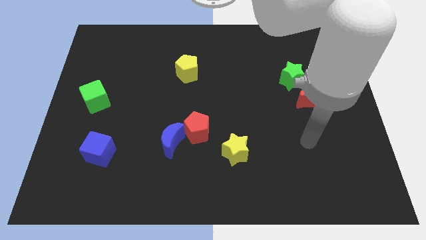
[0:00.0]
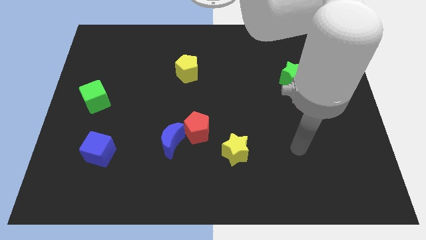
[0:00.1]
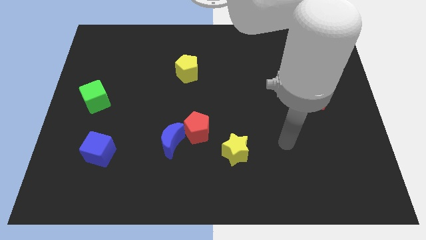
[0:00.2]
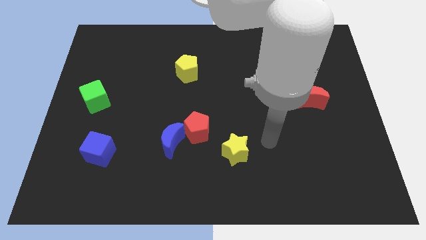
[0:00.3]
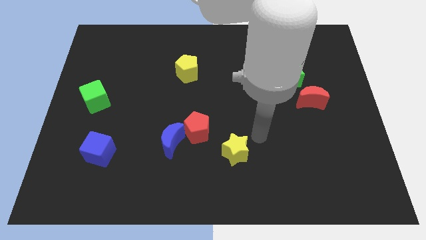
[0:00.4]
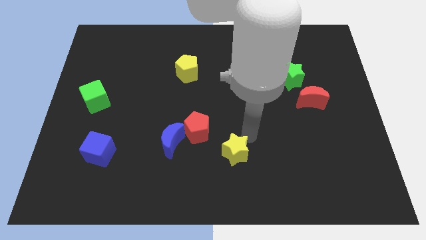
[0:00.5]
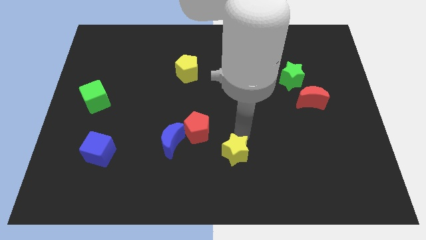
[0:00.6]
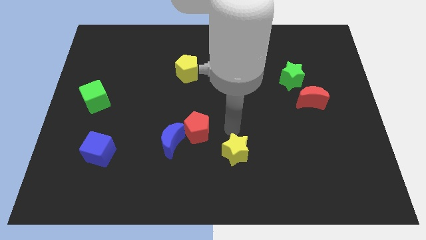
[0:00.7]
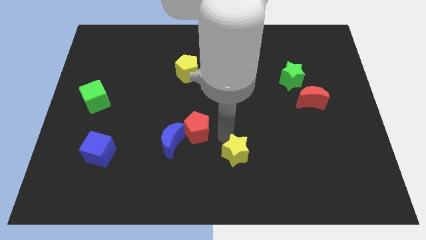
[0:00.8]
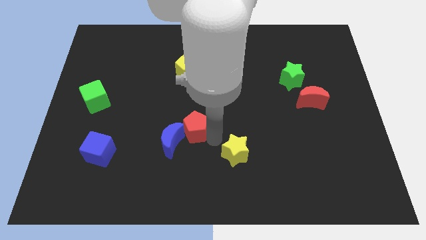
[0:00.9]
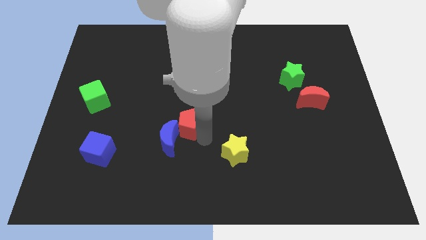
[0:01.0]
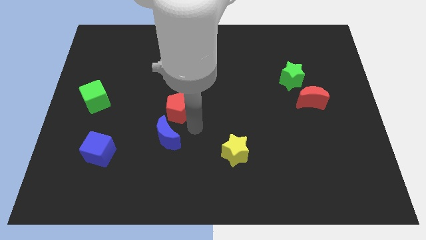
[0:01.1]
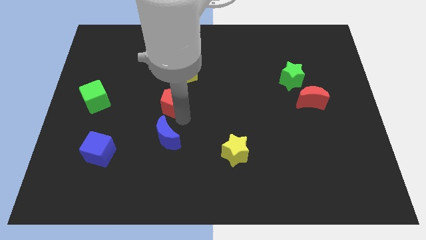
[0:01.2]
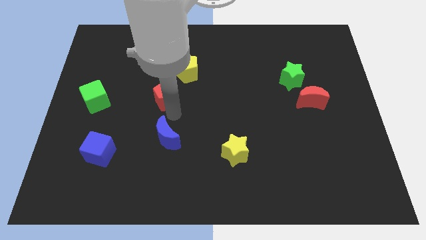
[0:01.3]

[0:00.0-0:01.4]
move the blue moon away from the red pentagon

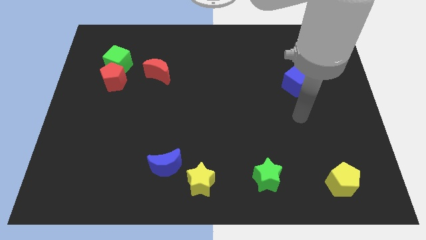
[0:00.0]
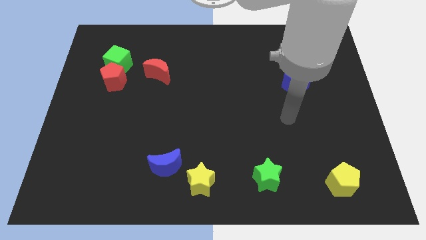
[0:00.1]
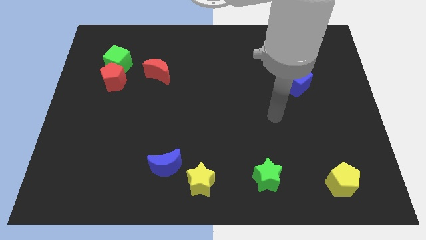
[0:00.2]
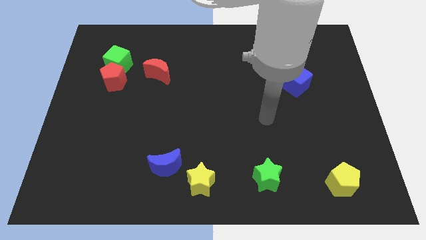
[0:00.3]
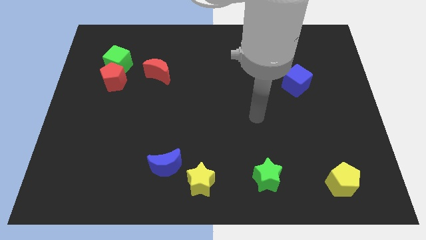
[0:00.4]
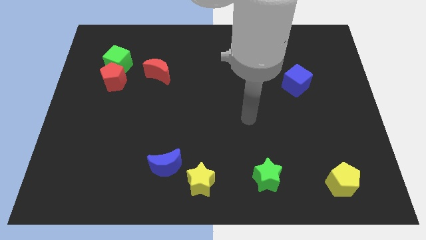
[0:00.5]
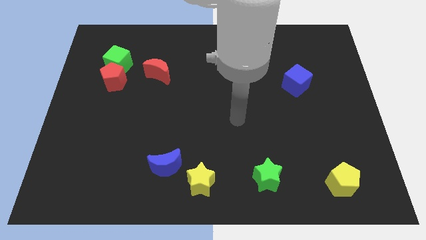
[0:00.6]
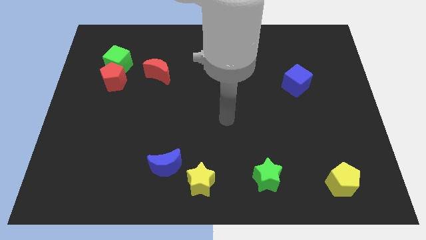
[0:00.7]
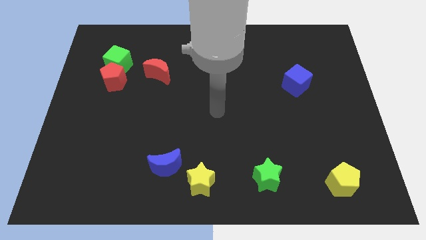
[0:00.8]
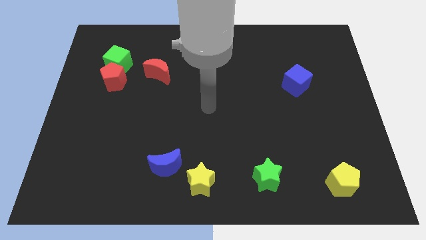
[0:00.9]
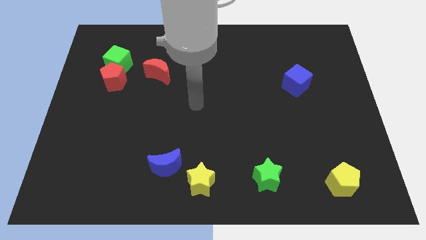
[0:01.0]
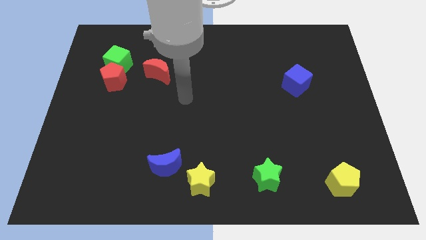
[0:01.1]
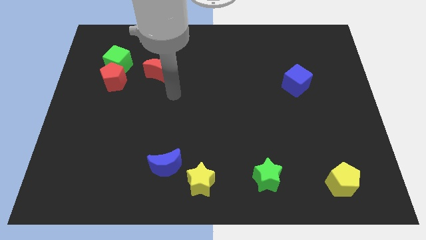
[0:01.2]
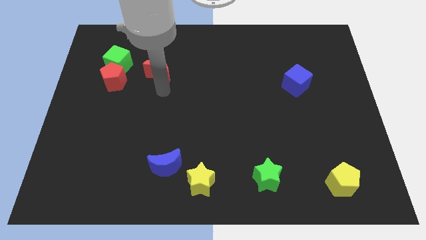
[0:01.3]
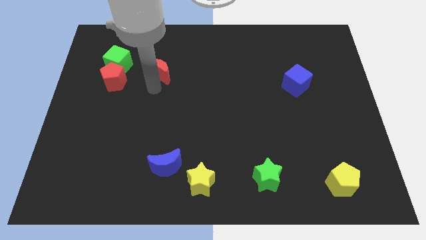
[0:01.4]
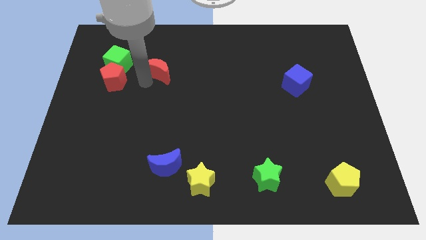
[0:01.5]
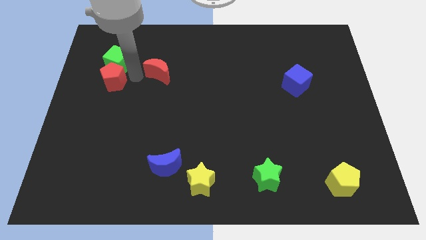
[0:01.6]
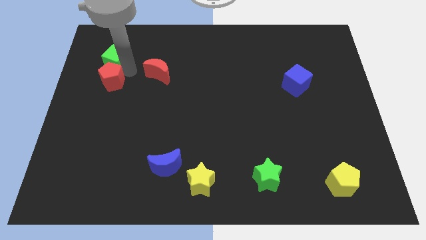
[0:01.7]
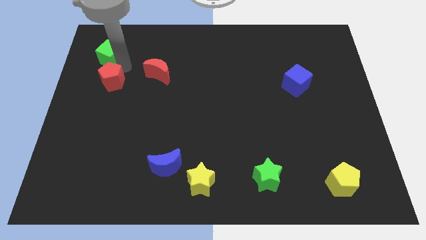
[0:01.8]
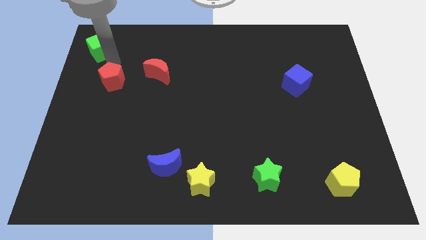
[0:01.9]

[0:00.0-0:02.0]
pull the red pentagon apart from the green cube

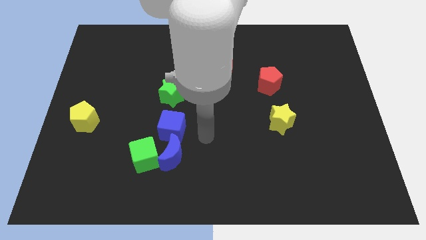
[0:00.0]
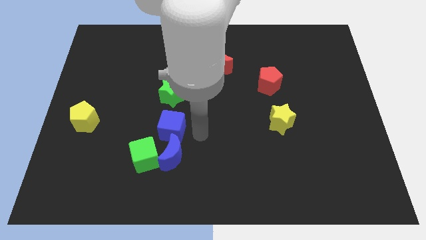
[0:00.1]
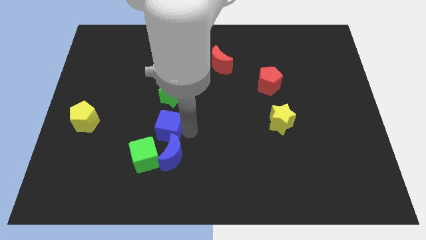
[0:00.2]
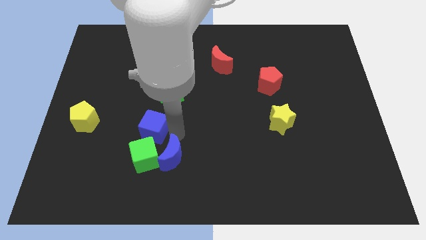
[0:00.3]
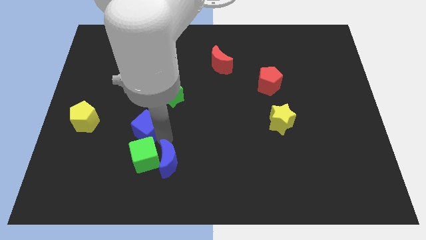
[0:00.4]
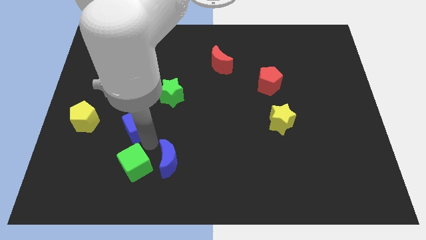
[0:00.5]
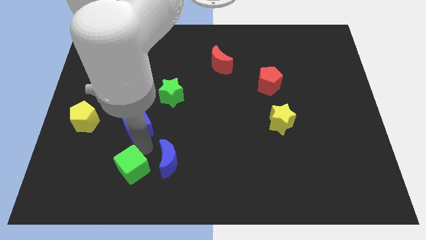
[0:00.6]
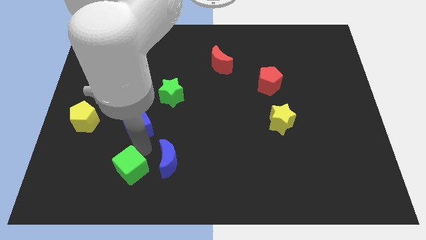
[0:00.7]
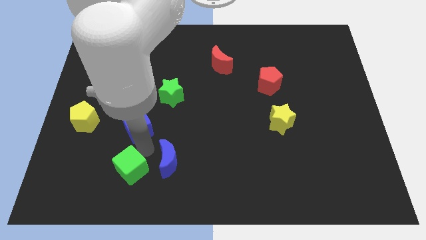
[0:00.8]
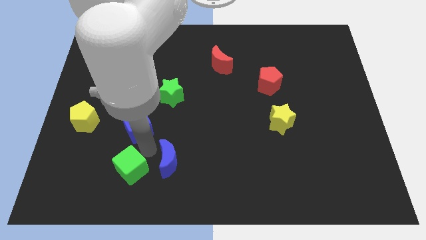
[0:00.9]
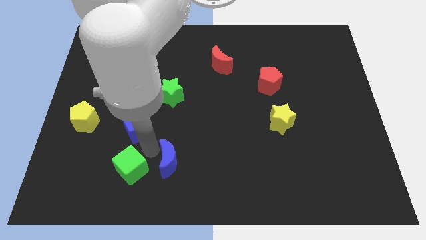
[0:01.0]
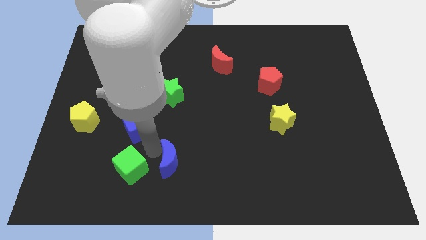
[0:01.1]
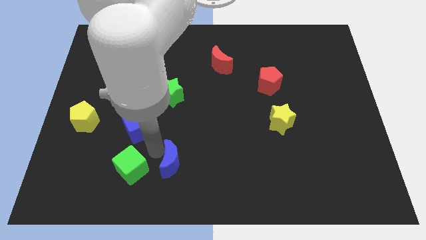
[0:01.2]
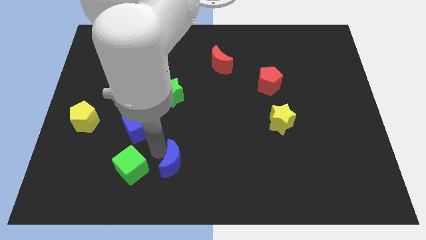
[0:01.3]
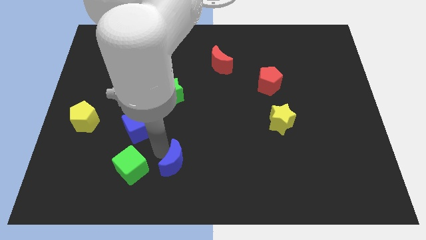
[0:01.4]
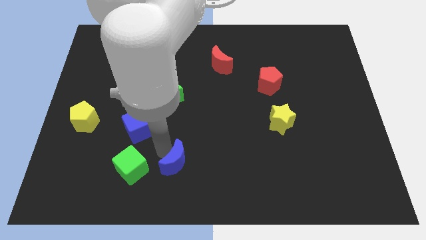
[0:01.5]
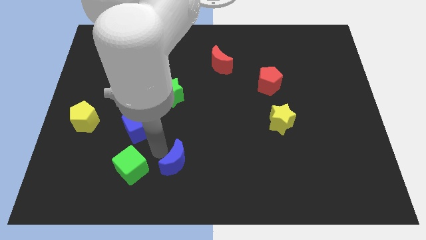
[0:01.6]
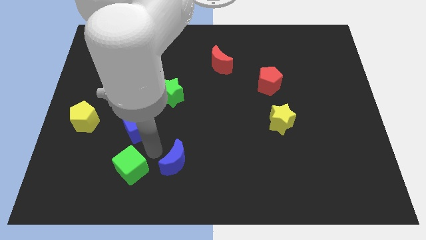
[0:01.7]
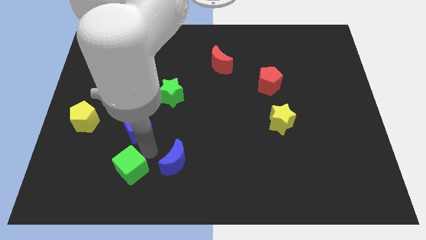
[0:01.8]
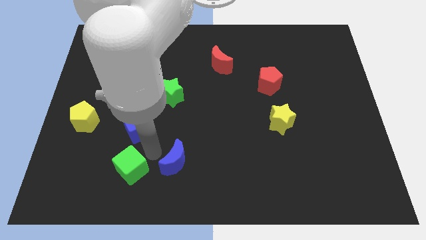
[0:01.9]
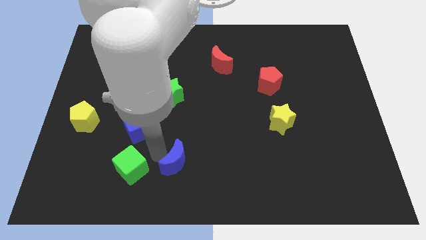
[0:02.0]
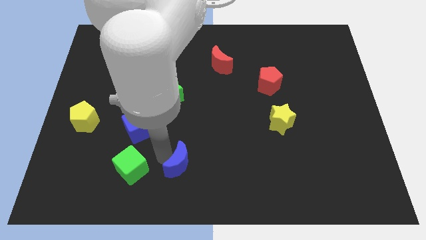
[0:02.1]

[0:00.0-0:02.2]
separate the blue moon from the green cube and blue cube

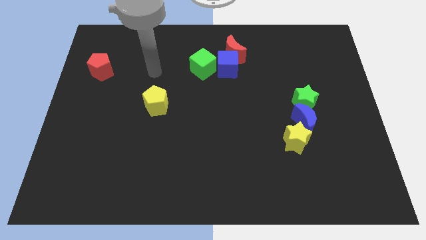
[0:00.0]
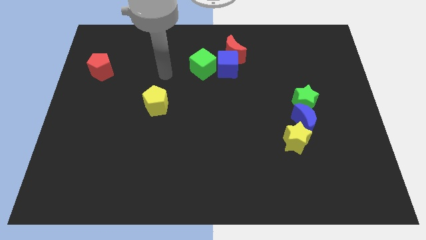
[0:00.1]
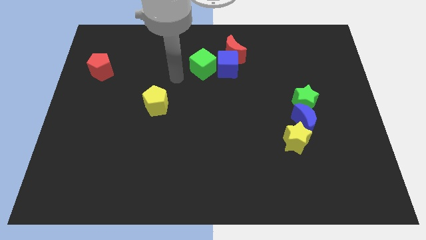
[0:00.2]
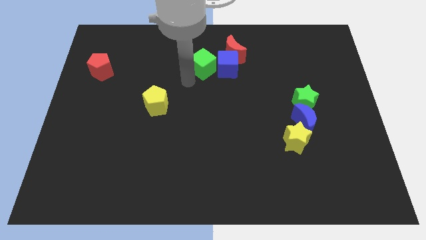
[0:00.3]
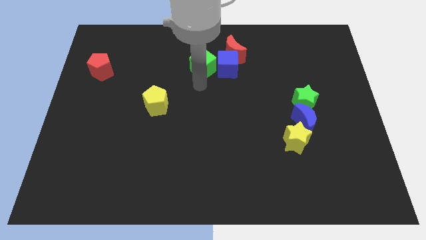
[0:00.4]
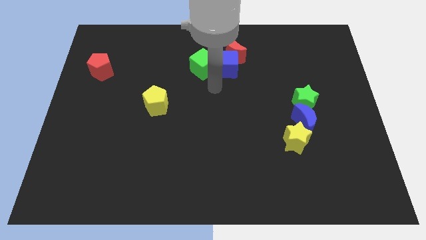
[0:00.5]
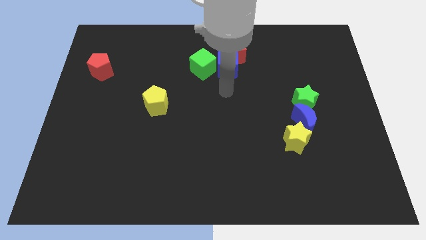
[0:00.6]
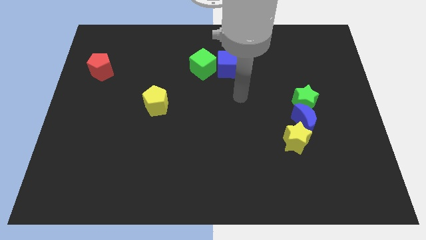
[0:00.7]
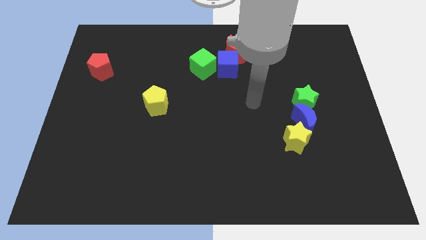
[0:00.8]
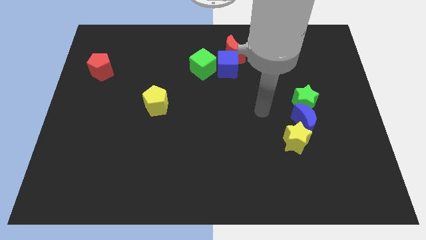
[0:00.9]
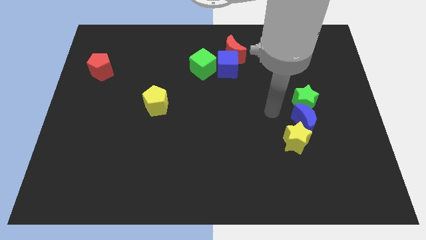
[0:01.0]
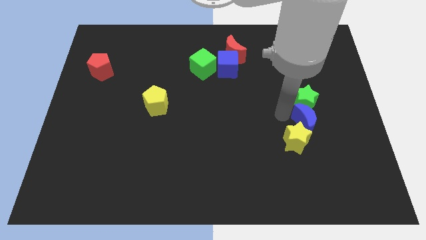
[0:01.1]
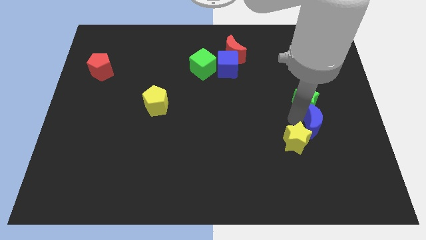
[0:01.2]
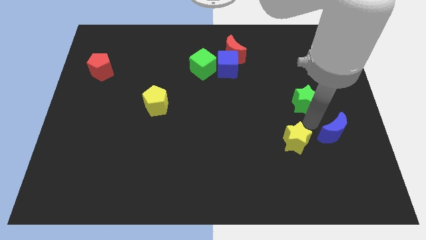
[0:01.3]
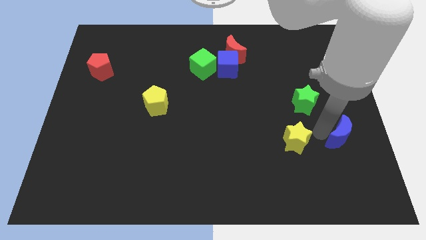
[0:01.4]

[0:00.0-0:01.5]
separate the yellow star from the blue moon

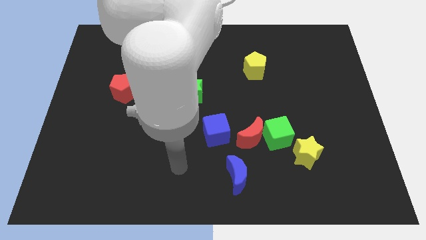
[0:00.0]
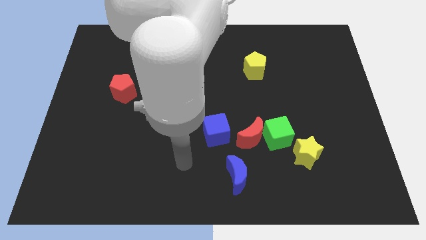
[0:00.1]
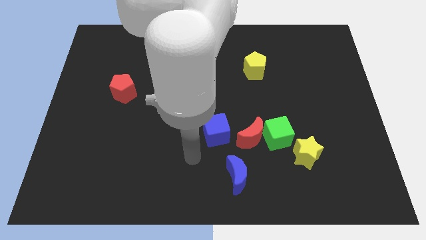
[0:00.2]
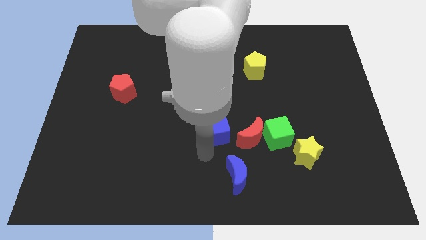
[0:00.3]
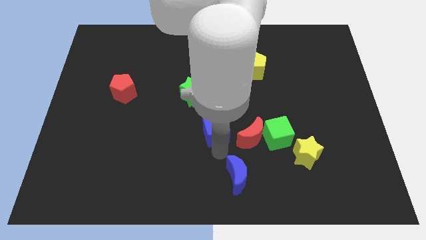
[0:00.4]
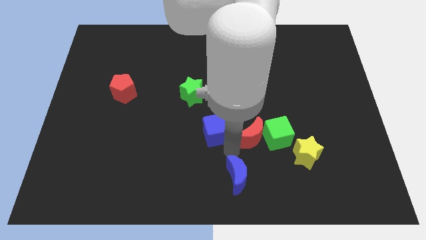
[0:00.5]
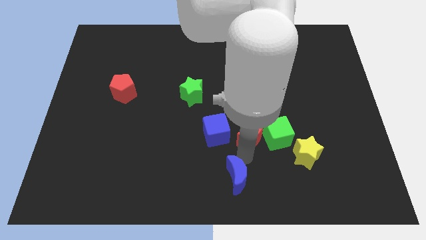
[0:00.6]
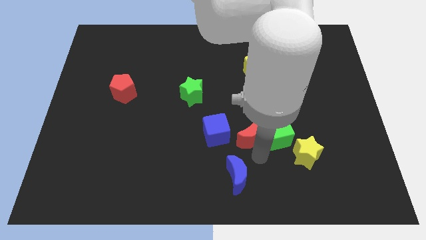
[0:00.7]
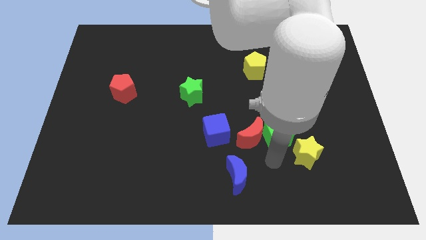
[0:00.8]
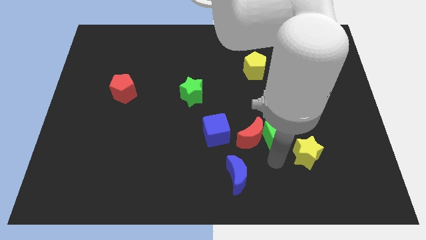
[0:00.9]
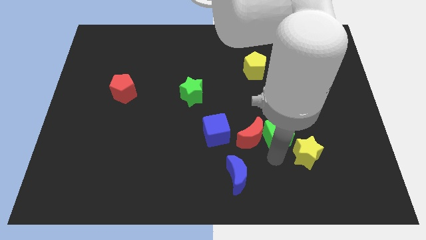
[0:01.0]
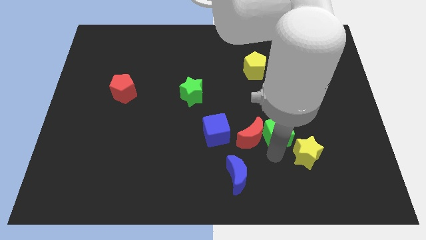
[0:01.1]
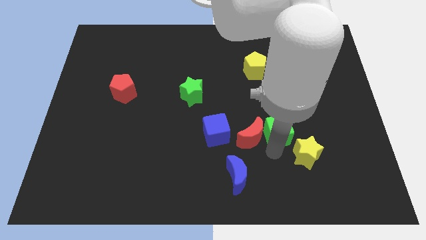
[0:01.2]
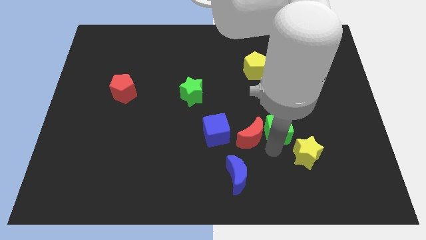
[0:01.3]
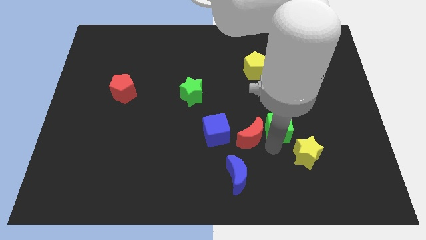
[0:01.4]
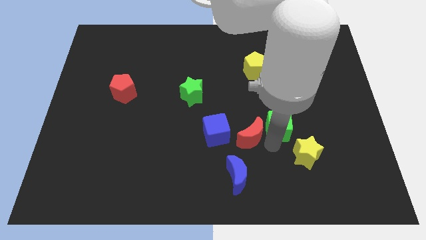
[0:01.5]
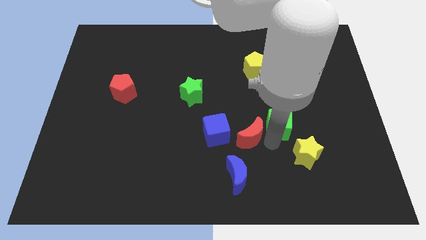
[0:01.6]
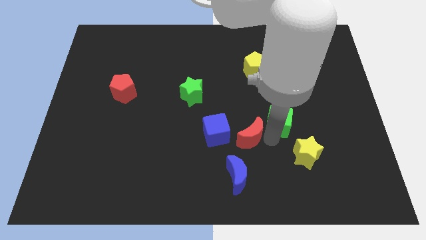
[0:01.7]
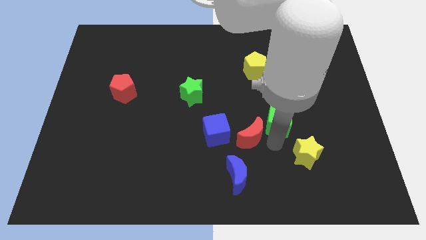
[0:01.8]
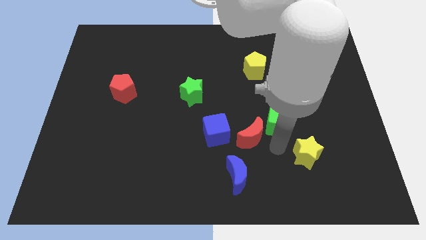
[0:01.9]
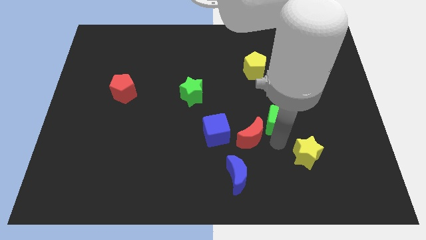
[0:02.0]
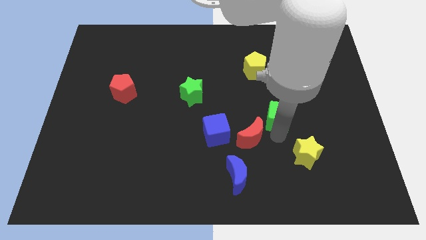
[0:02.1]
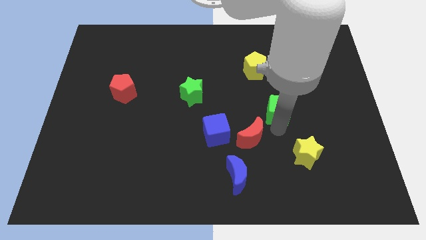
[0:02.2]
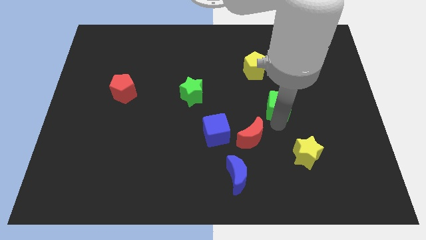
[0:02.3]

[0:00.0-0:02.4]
separate the green cube from the red moon and yellow star

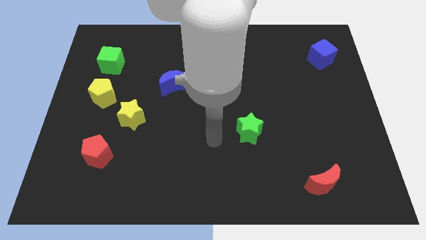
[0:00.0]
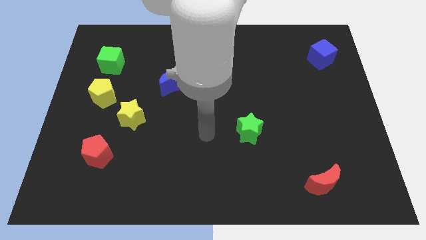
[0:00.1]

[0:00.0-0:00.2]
move the yellow star away from the yellow pentagon
